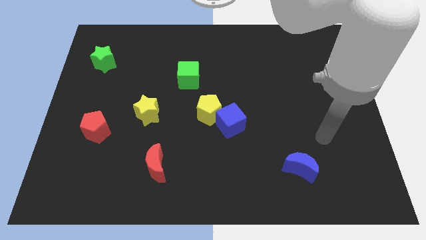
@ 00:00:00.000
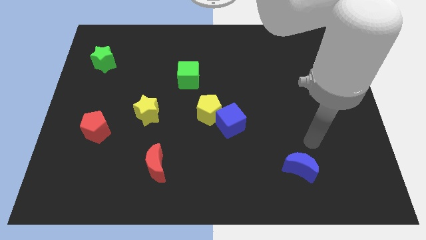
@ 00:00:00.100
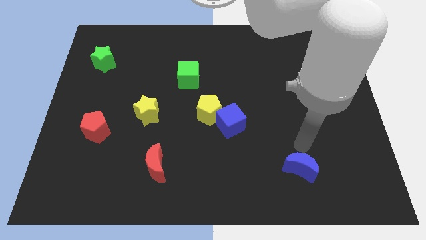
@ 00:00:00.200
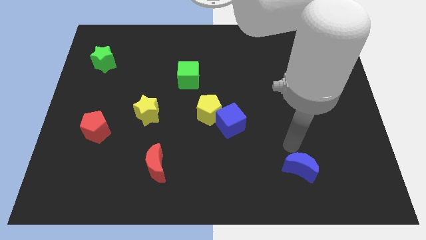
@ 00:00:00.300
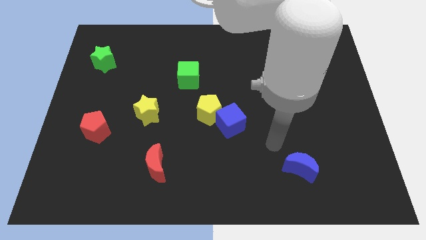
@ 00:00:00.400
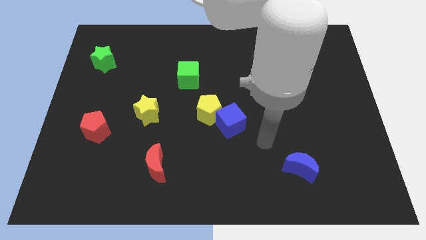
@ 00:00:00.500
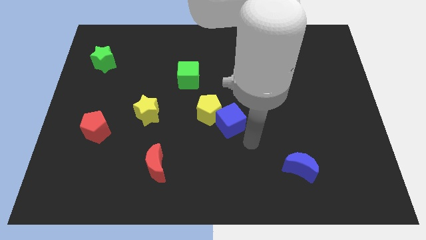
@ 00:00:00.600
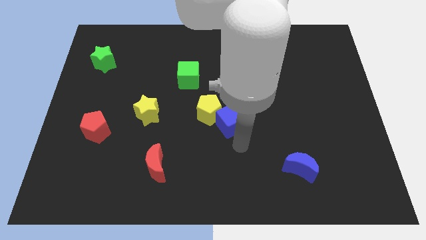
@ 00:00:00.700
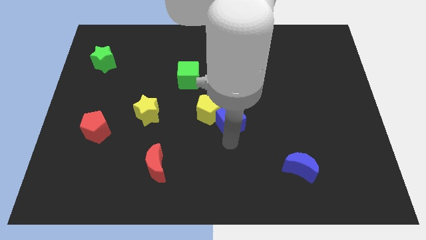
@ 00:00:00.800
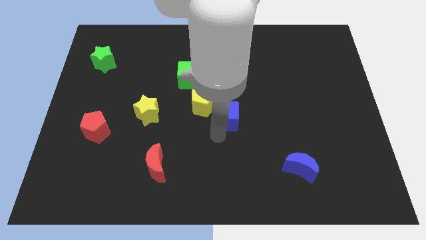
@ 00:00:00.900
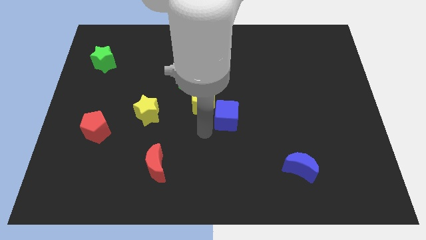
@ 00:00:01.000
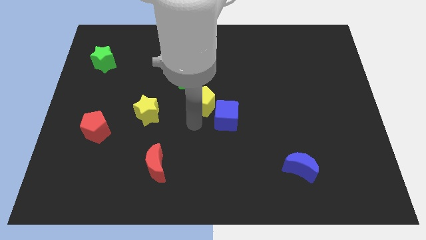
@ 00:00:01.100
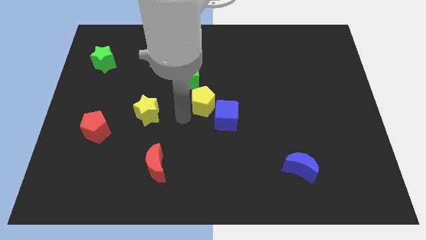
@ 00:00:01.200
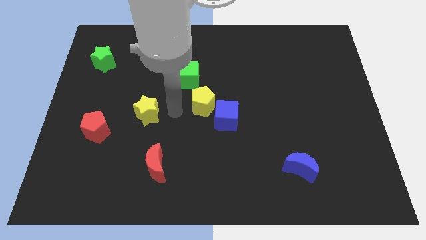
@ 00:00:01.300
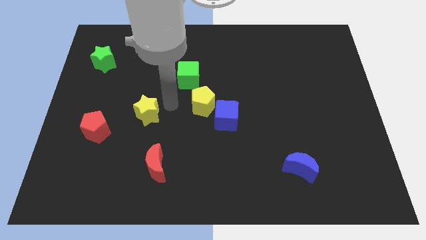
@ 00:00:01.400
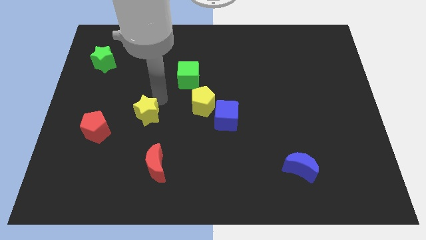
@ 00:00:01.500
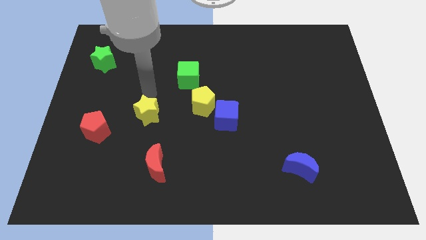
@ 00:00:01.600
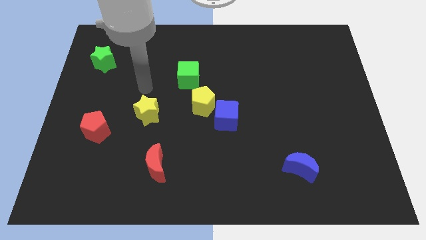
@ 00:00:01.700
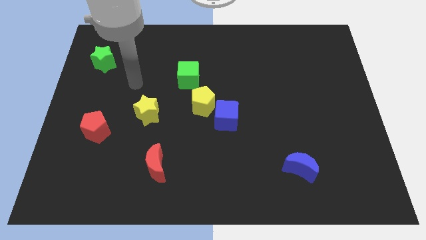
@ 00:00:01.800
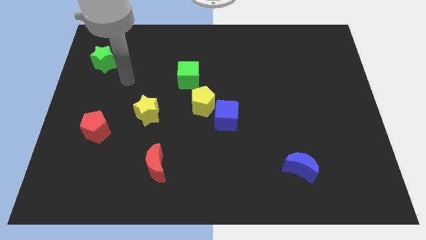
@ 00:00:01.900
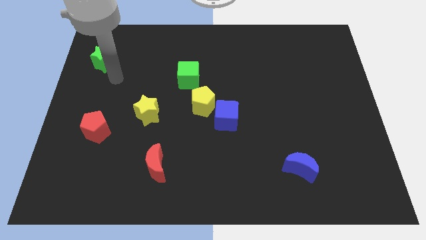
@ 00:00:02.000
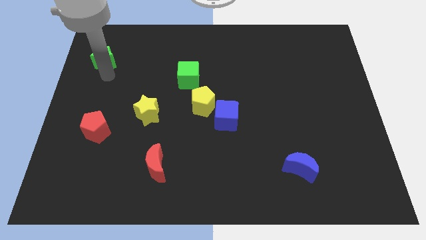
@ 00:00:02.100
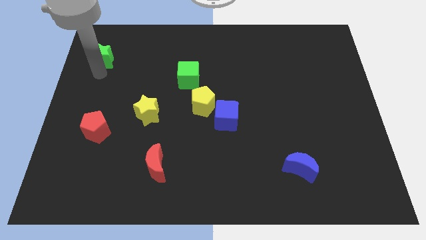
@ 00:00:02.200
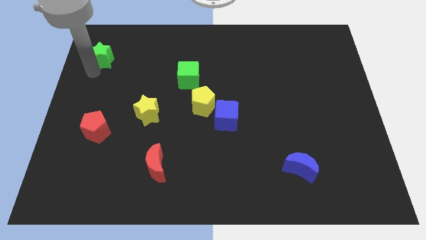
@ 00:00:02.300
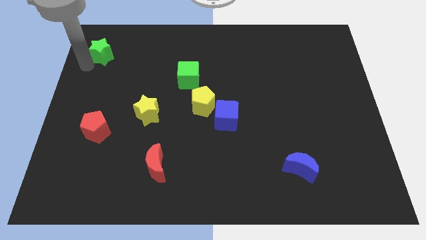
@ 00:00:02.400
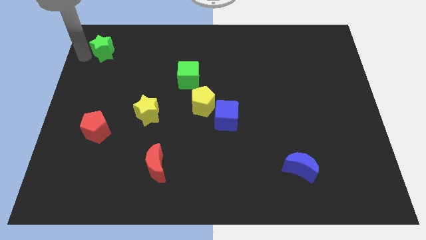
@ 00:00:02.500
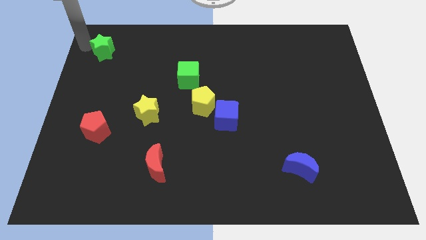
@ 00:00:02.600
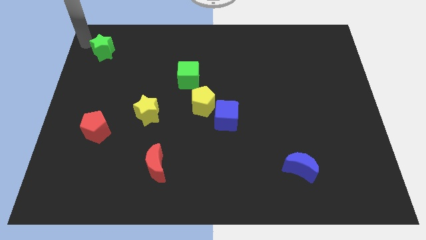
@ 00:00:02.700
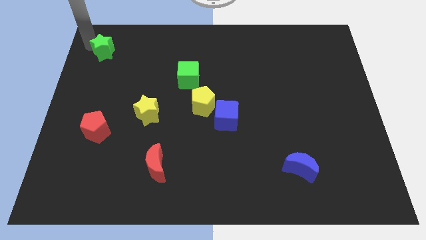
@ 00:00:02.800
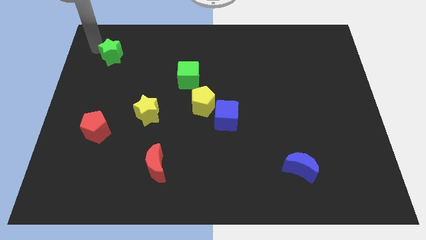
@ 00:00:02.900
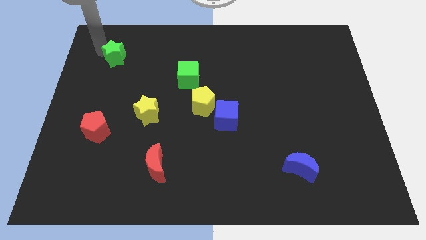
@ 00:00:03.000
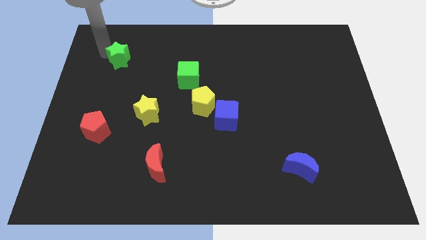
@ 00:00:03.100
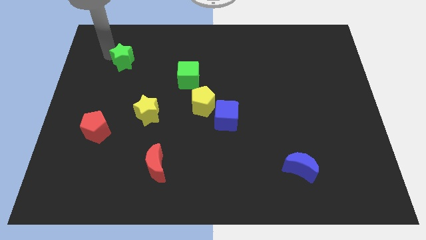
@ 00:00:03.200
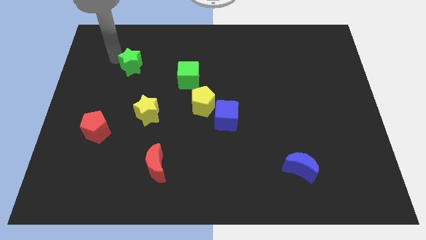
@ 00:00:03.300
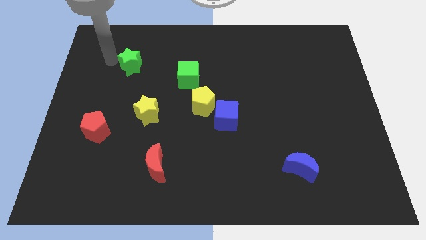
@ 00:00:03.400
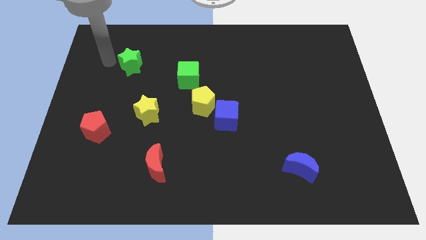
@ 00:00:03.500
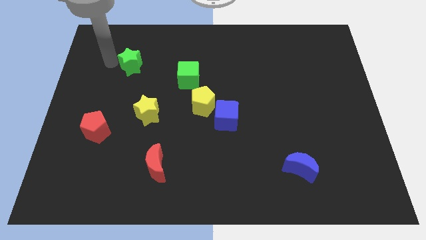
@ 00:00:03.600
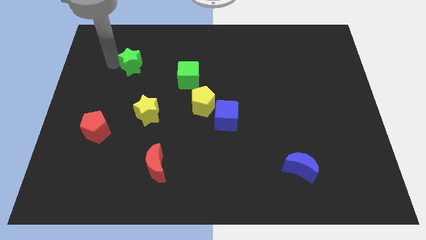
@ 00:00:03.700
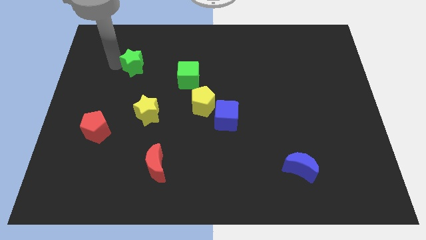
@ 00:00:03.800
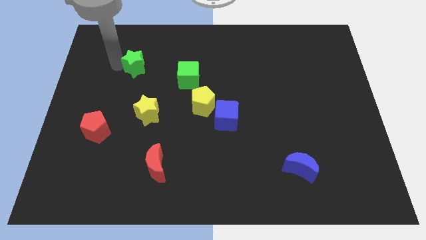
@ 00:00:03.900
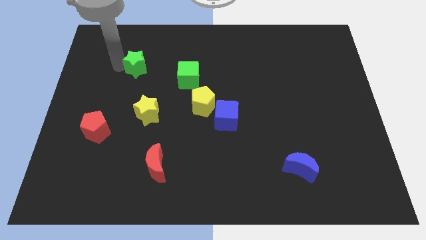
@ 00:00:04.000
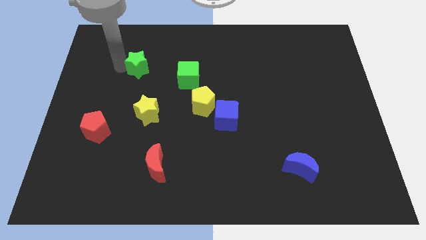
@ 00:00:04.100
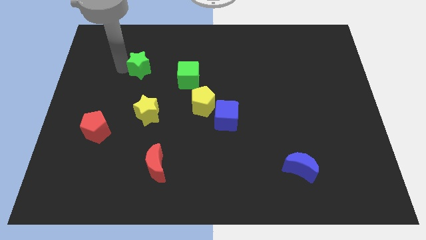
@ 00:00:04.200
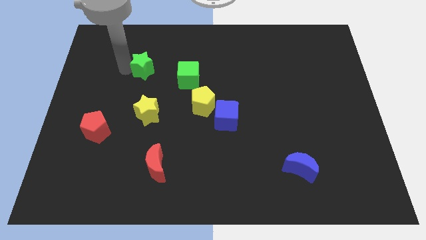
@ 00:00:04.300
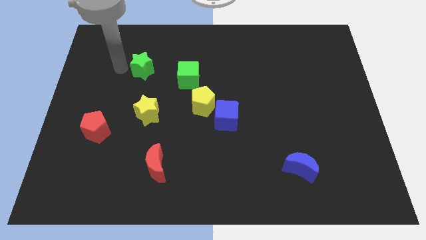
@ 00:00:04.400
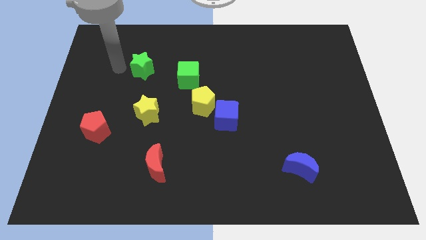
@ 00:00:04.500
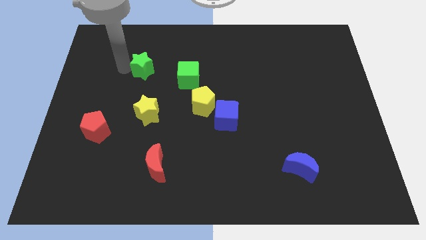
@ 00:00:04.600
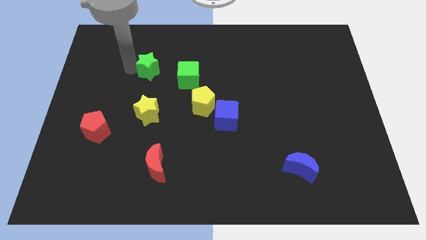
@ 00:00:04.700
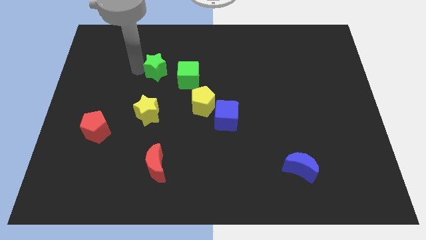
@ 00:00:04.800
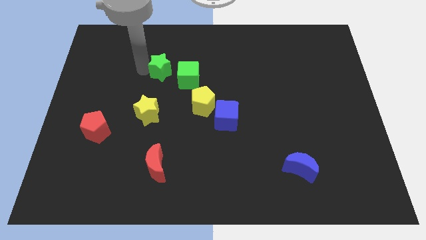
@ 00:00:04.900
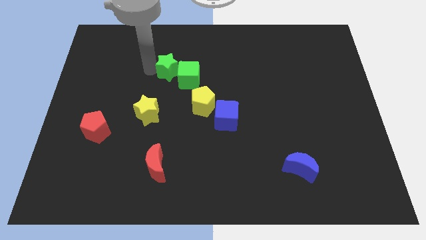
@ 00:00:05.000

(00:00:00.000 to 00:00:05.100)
put the green star to the green cube

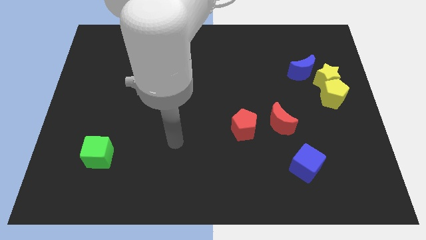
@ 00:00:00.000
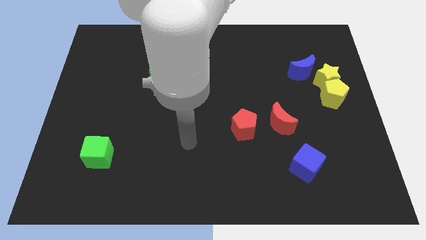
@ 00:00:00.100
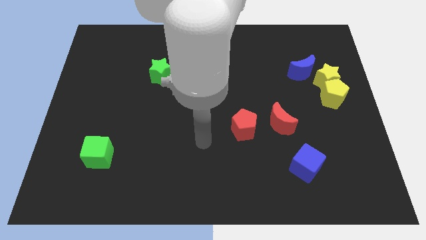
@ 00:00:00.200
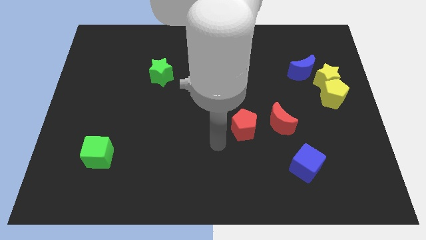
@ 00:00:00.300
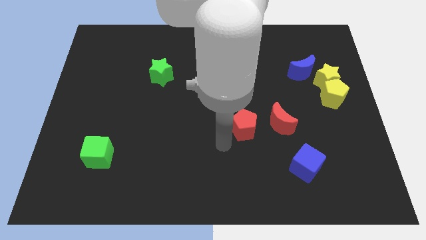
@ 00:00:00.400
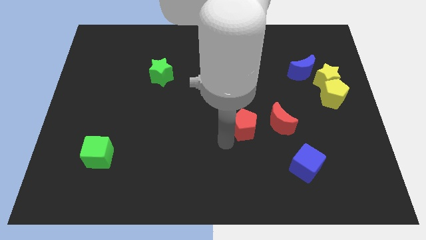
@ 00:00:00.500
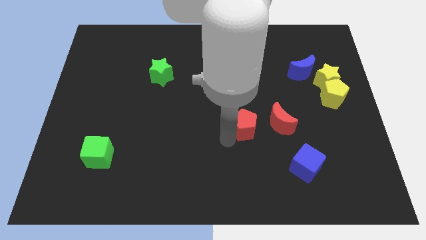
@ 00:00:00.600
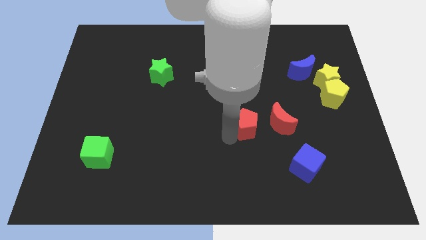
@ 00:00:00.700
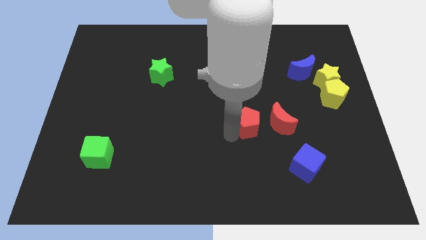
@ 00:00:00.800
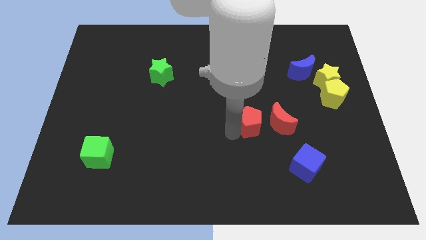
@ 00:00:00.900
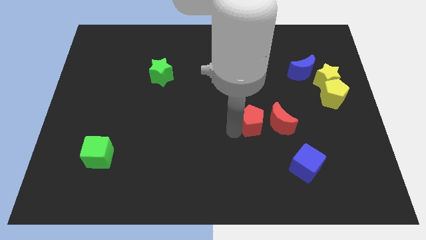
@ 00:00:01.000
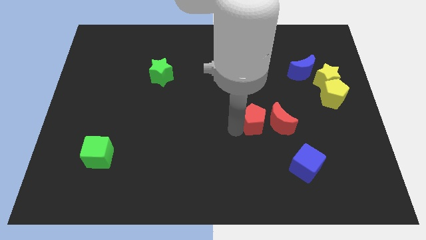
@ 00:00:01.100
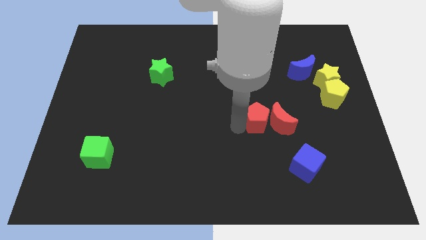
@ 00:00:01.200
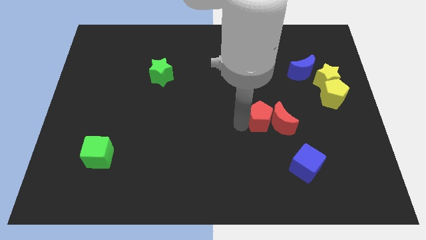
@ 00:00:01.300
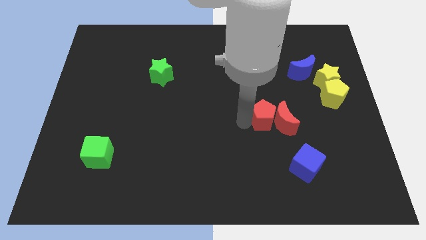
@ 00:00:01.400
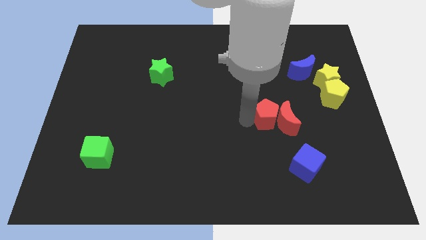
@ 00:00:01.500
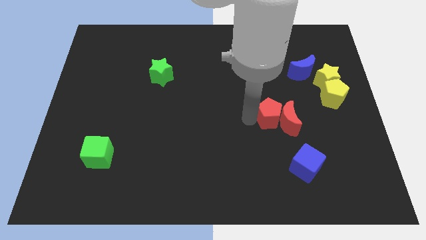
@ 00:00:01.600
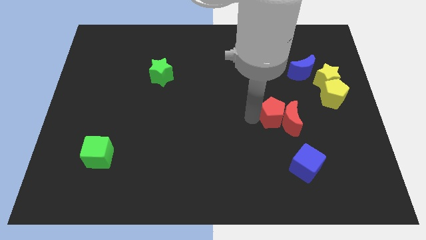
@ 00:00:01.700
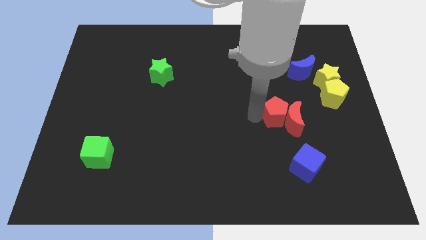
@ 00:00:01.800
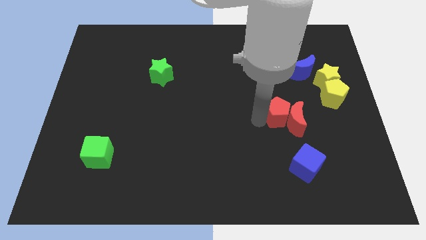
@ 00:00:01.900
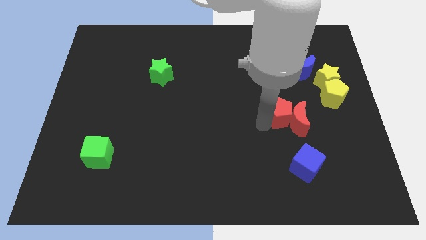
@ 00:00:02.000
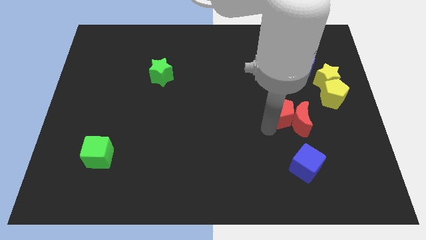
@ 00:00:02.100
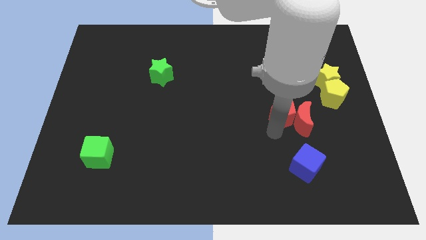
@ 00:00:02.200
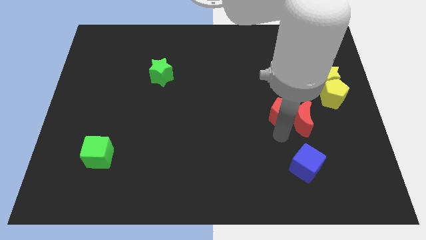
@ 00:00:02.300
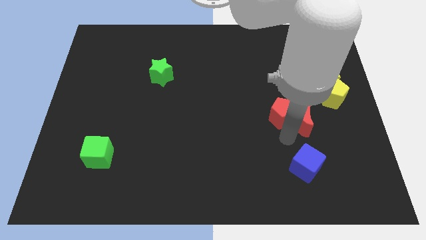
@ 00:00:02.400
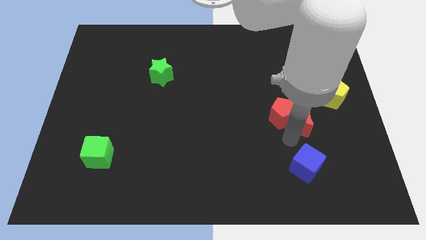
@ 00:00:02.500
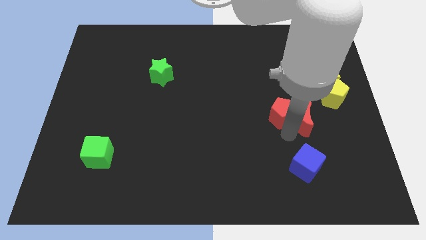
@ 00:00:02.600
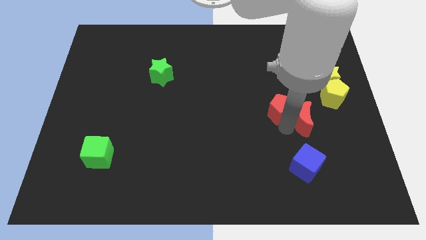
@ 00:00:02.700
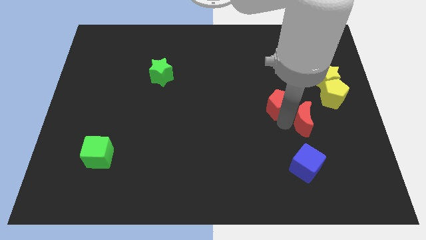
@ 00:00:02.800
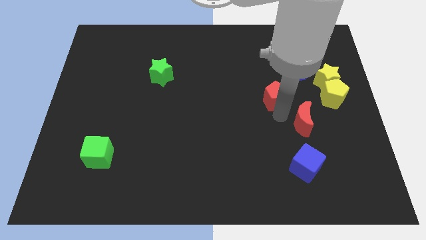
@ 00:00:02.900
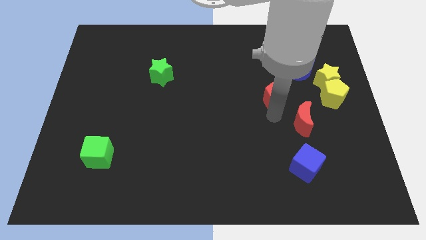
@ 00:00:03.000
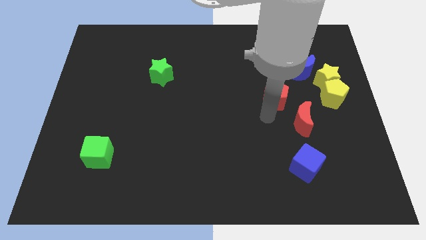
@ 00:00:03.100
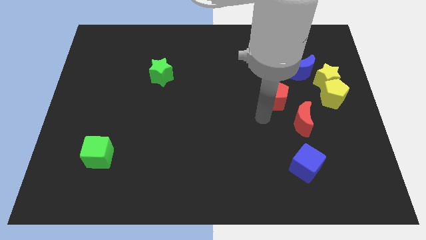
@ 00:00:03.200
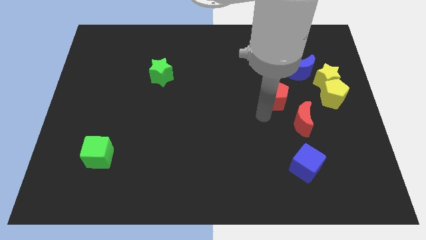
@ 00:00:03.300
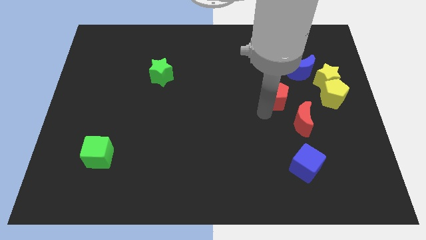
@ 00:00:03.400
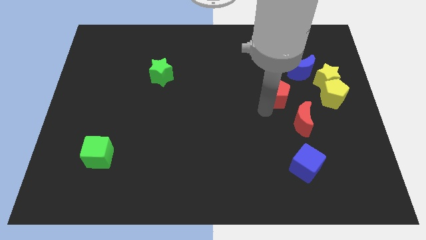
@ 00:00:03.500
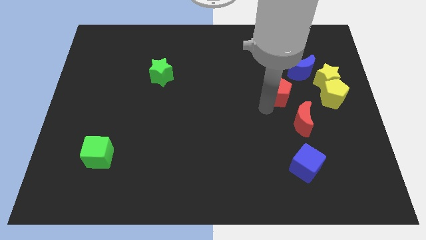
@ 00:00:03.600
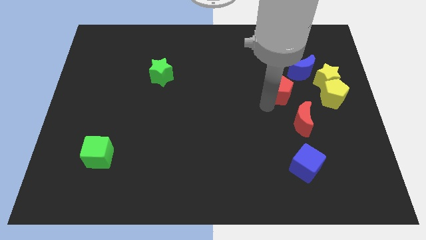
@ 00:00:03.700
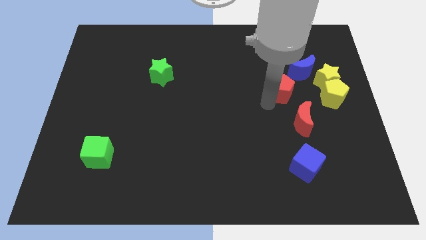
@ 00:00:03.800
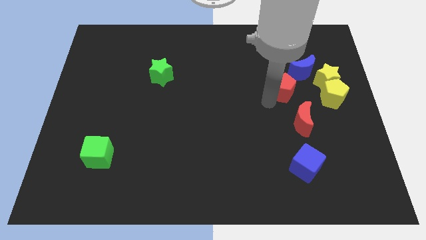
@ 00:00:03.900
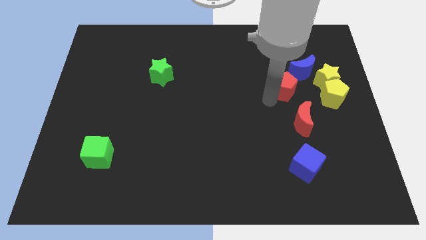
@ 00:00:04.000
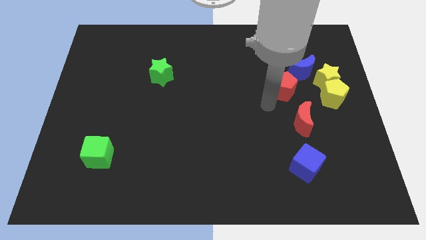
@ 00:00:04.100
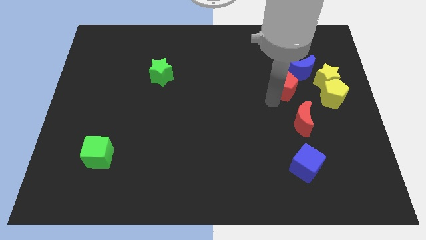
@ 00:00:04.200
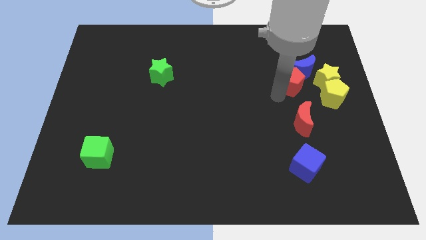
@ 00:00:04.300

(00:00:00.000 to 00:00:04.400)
slide the red pentagon to the blue moon
